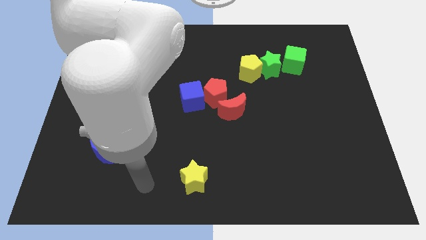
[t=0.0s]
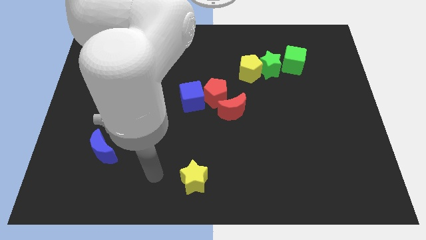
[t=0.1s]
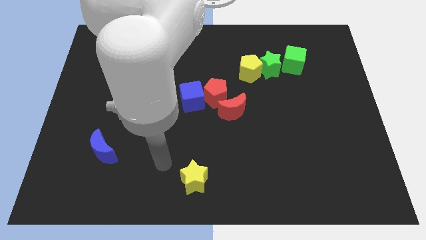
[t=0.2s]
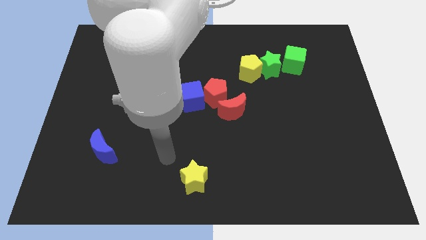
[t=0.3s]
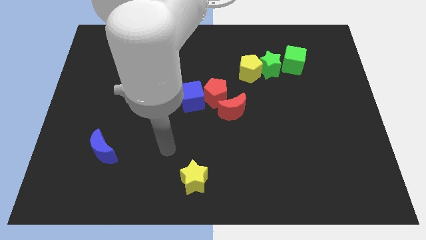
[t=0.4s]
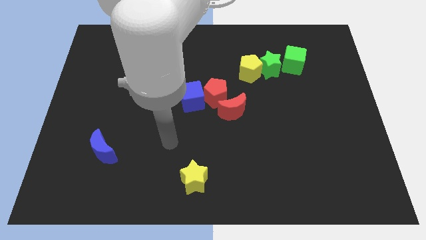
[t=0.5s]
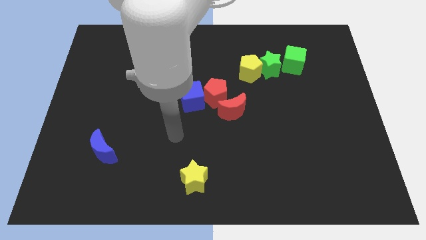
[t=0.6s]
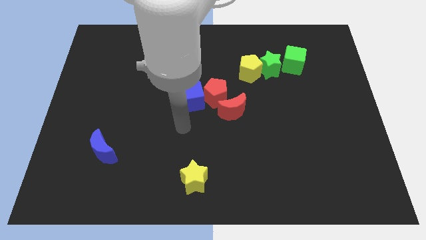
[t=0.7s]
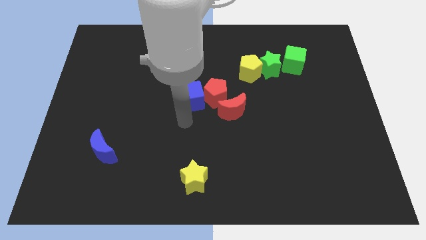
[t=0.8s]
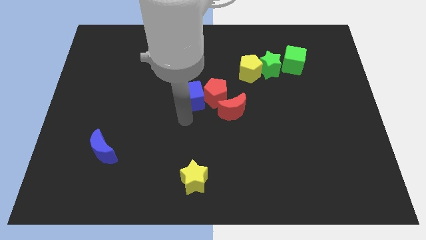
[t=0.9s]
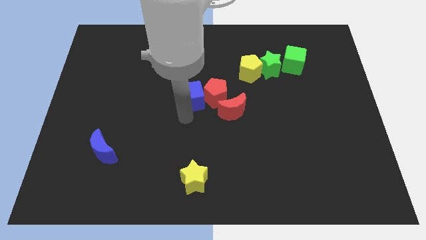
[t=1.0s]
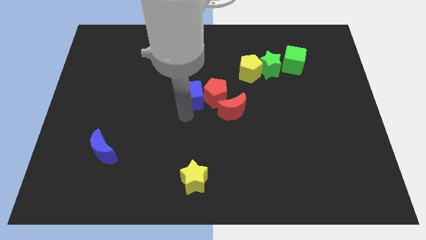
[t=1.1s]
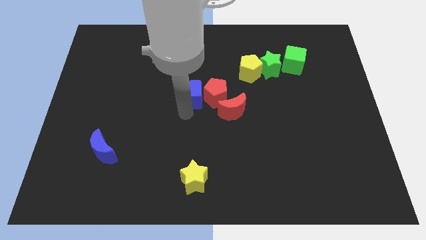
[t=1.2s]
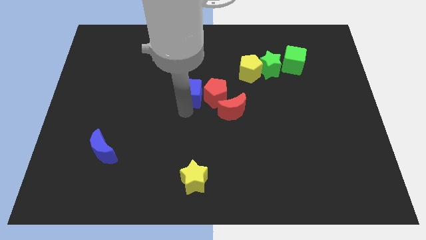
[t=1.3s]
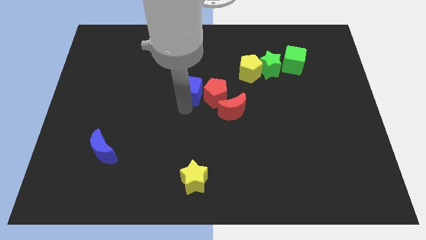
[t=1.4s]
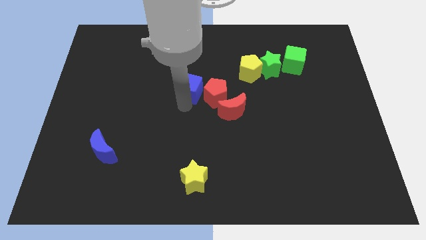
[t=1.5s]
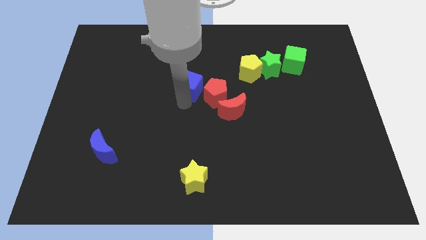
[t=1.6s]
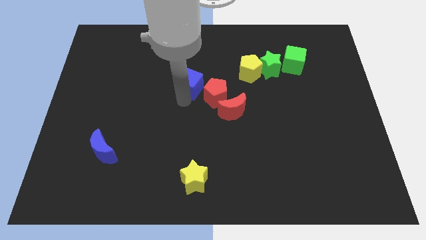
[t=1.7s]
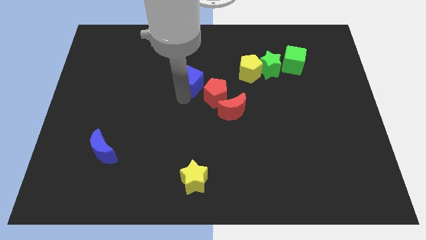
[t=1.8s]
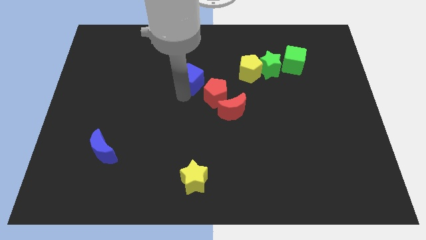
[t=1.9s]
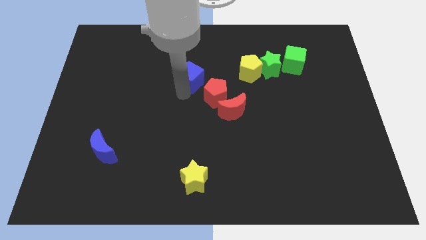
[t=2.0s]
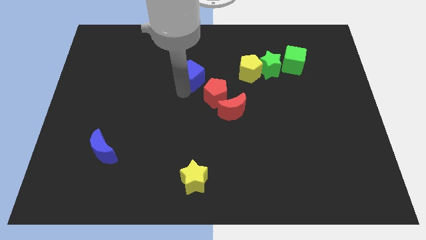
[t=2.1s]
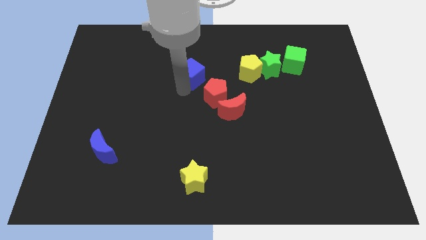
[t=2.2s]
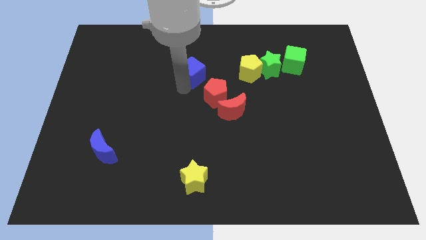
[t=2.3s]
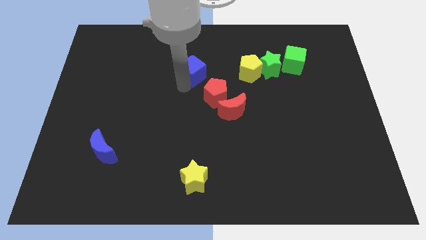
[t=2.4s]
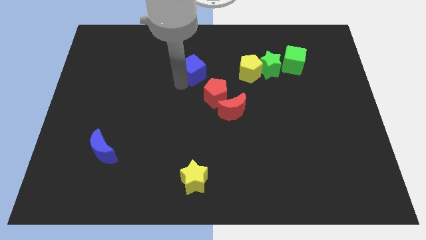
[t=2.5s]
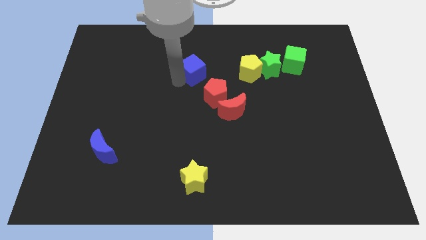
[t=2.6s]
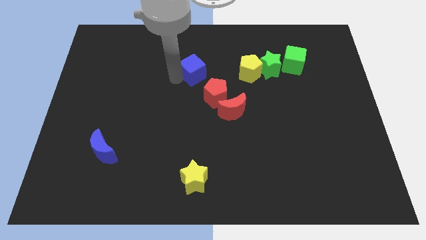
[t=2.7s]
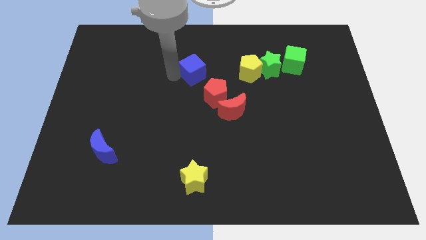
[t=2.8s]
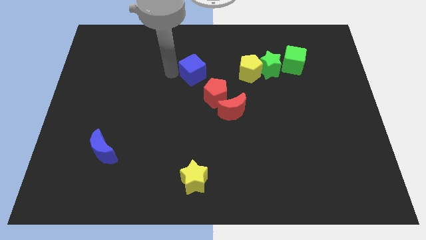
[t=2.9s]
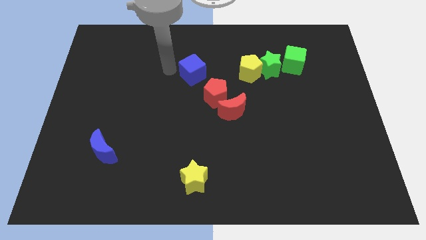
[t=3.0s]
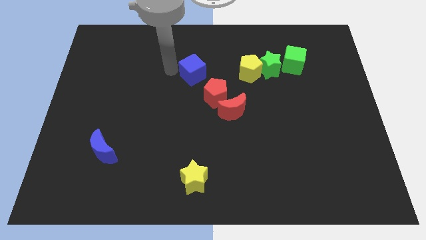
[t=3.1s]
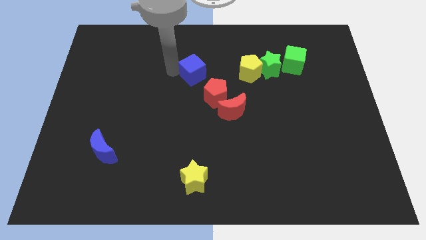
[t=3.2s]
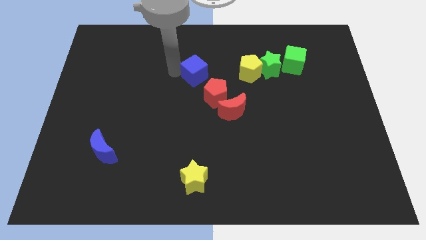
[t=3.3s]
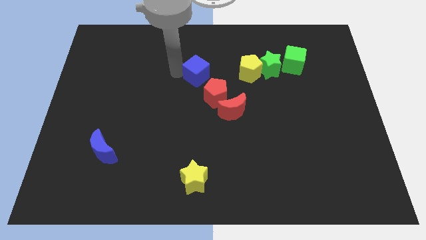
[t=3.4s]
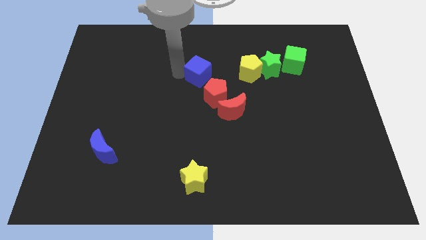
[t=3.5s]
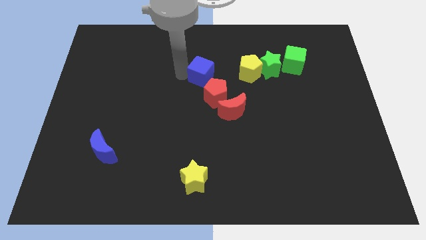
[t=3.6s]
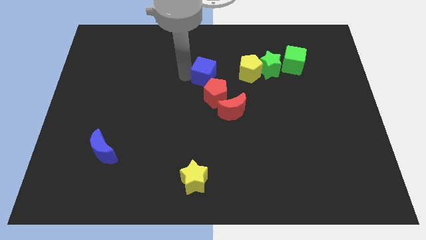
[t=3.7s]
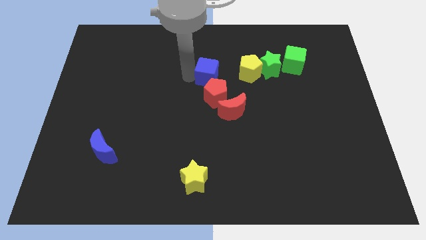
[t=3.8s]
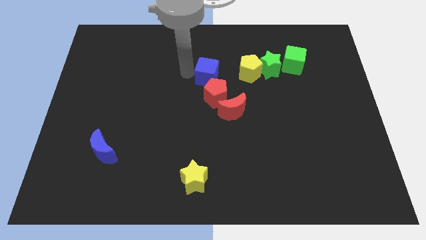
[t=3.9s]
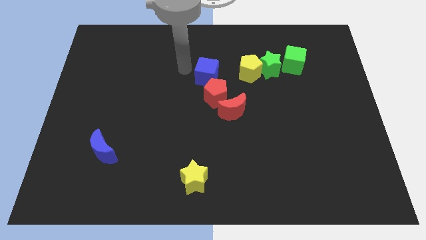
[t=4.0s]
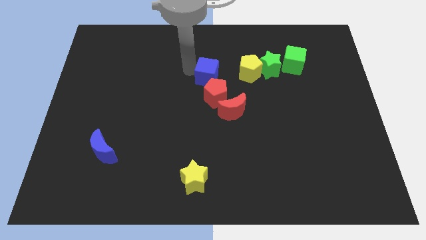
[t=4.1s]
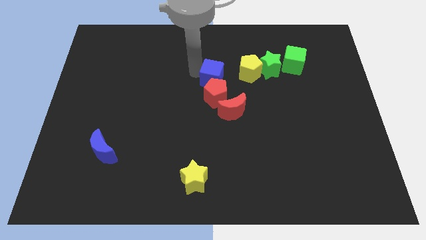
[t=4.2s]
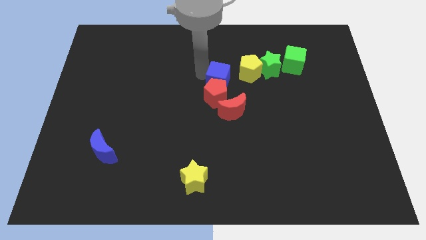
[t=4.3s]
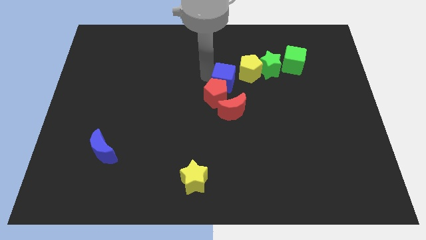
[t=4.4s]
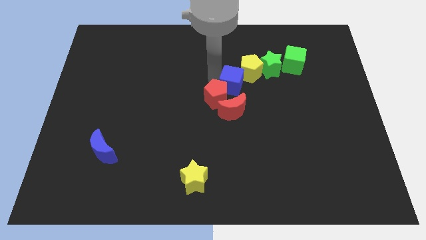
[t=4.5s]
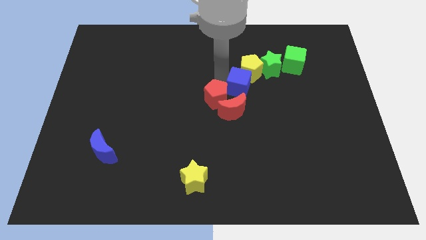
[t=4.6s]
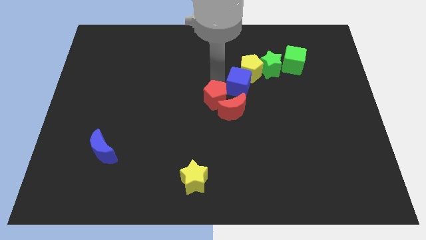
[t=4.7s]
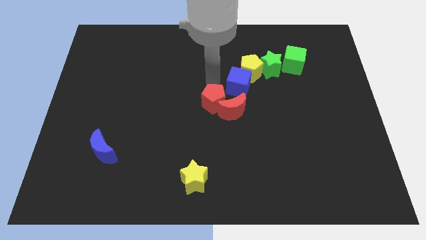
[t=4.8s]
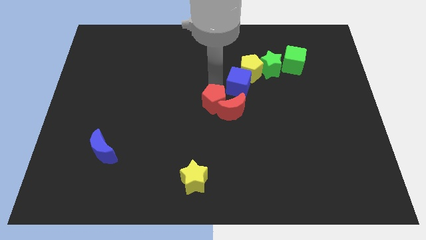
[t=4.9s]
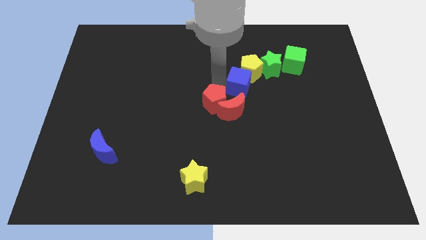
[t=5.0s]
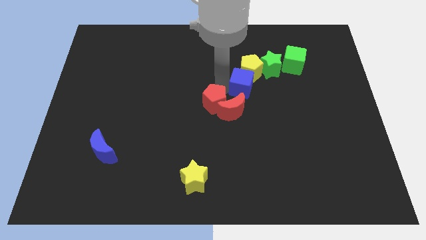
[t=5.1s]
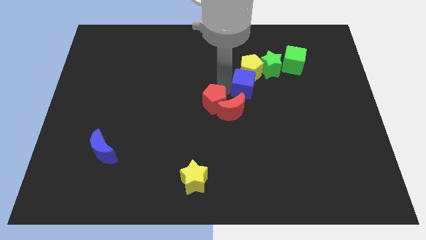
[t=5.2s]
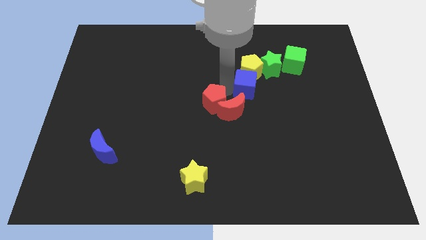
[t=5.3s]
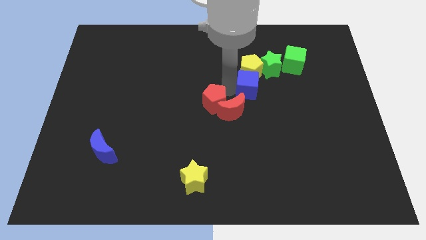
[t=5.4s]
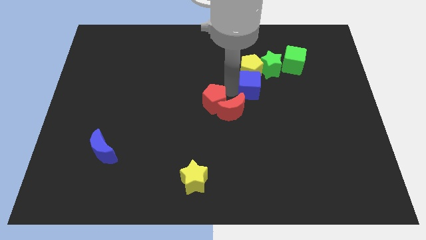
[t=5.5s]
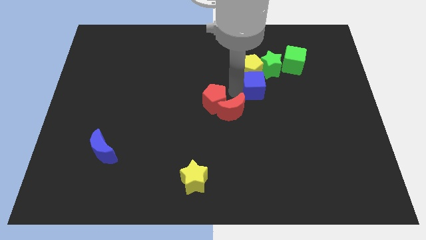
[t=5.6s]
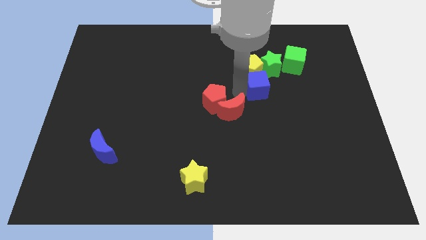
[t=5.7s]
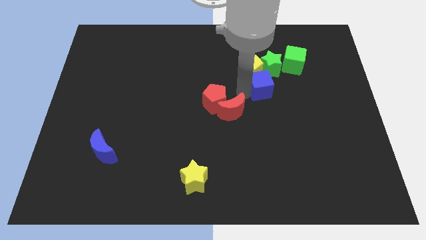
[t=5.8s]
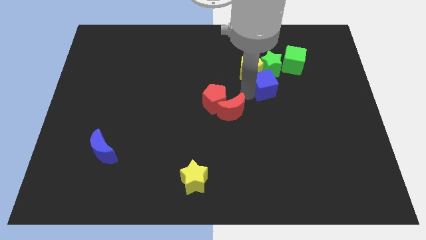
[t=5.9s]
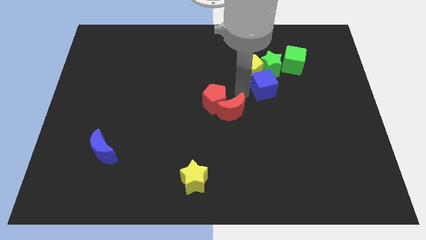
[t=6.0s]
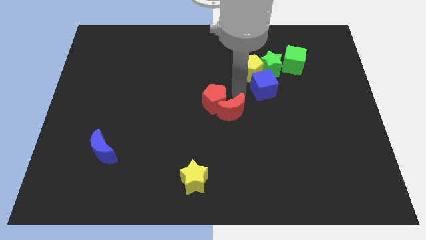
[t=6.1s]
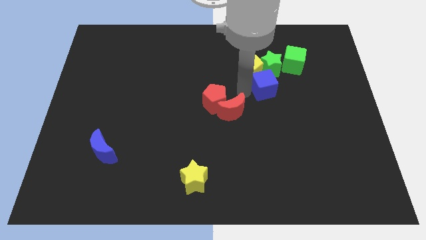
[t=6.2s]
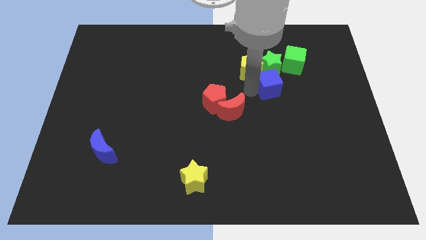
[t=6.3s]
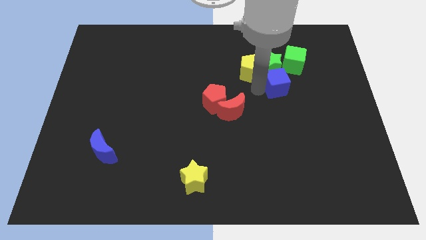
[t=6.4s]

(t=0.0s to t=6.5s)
push the blue cube to the bottom right side of the green star

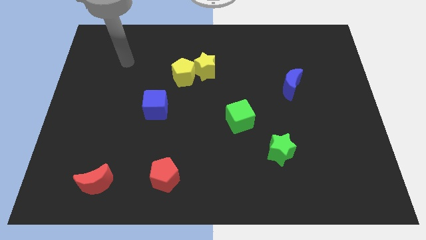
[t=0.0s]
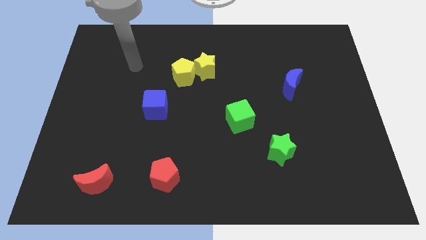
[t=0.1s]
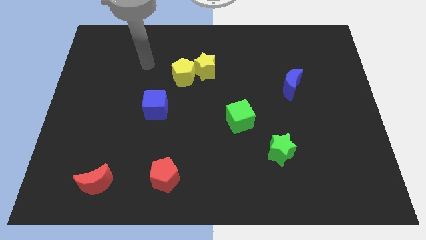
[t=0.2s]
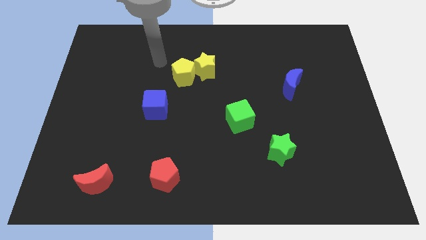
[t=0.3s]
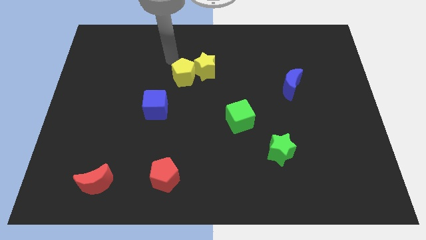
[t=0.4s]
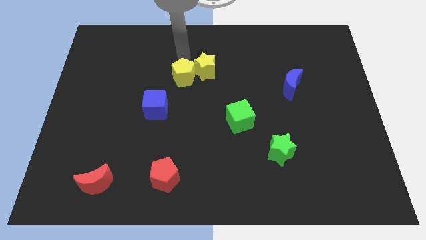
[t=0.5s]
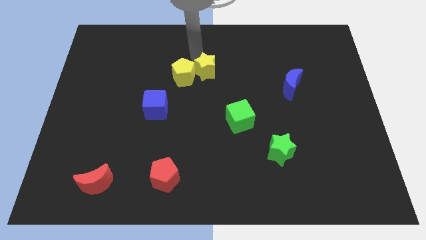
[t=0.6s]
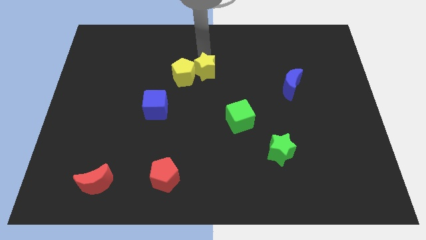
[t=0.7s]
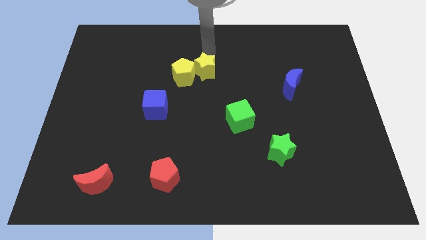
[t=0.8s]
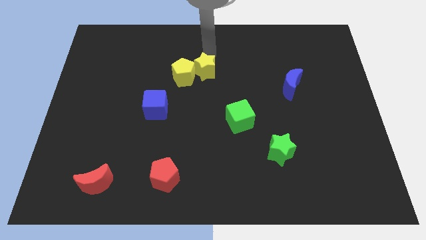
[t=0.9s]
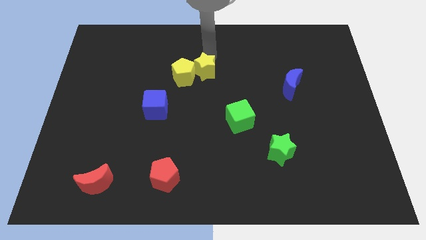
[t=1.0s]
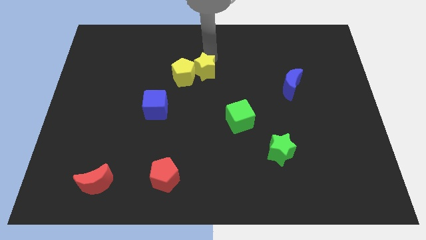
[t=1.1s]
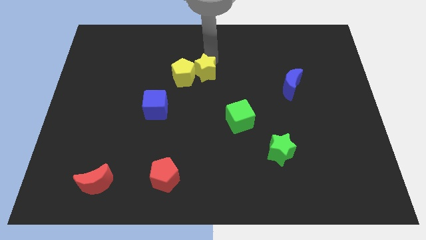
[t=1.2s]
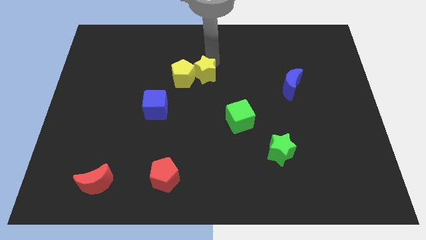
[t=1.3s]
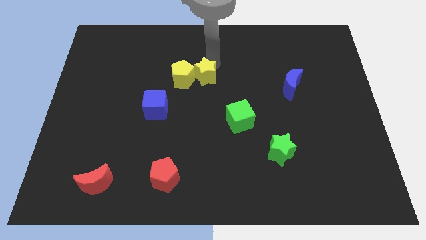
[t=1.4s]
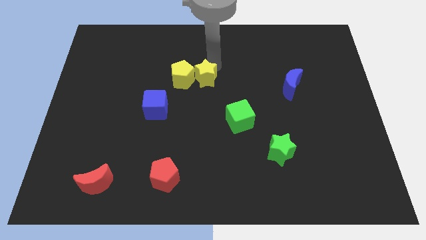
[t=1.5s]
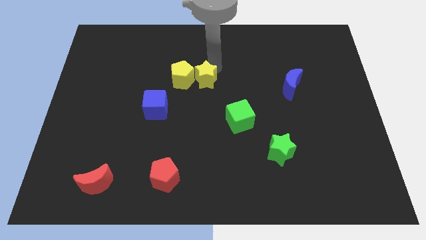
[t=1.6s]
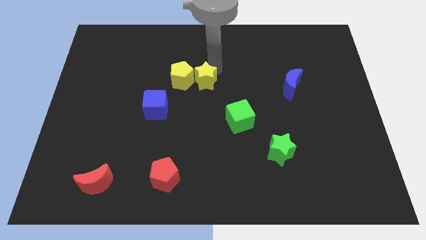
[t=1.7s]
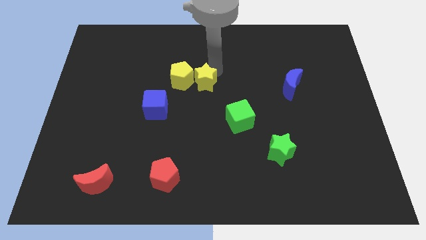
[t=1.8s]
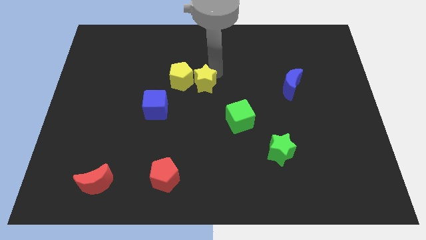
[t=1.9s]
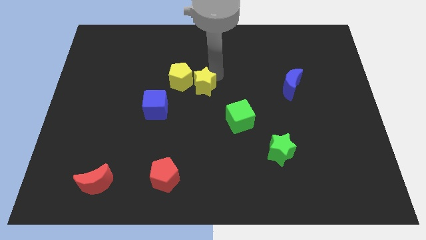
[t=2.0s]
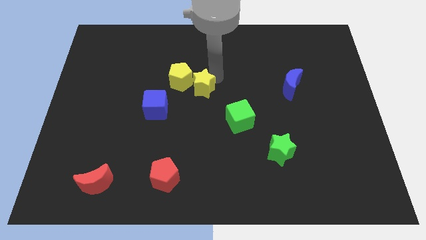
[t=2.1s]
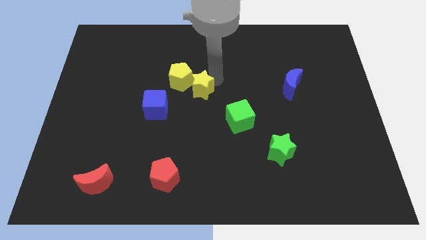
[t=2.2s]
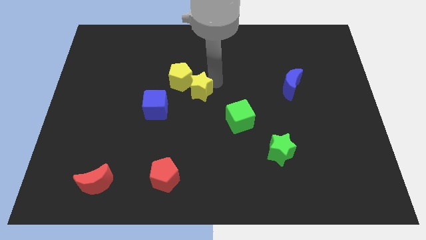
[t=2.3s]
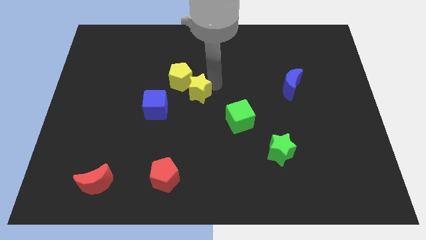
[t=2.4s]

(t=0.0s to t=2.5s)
put the yellow star just right of the blue cube
